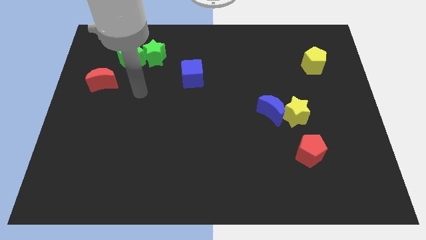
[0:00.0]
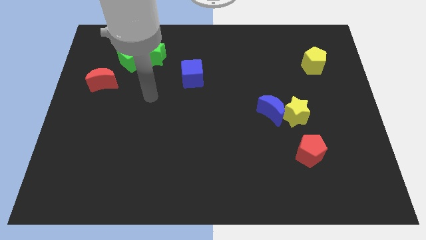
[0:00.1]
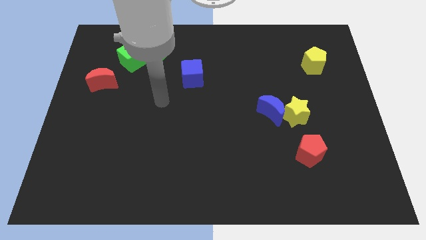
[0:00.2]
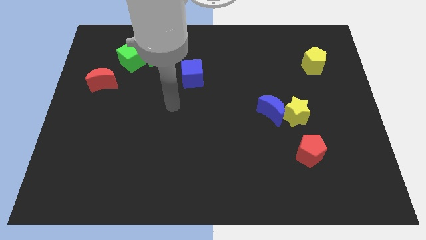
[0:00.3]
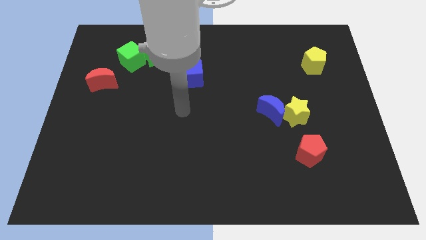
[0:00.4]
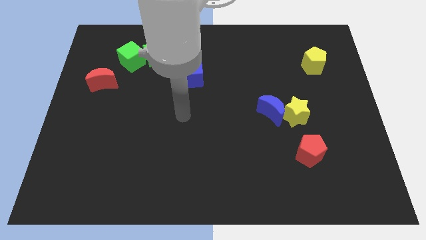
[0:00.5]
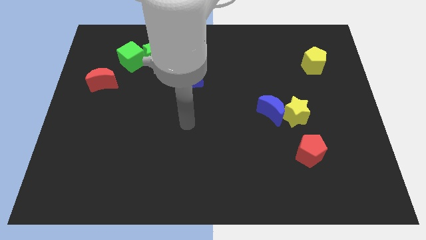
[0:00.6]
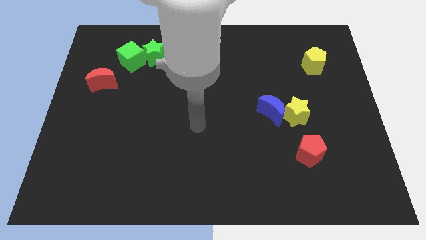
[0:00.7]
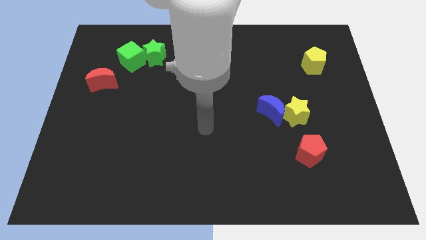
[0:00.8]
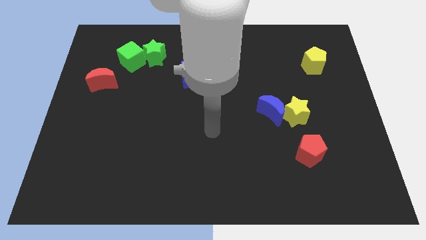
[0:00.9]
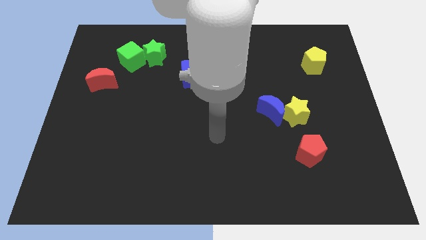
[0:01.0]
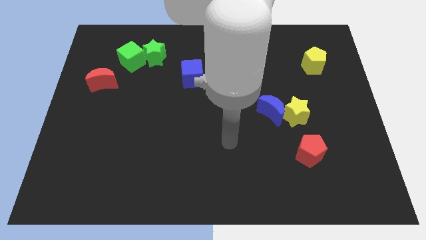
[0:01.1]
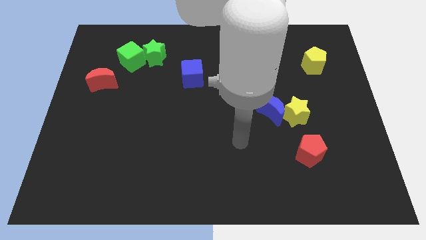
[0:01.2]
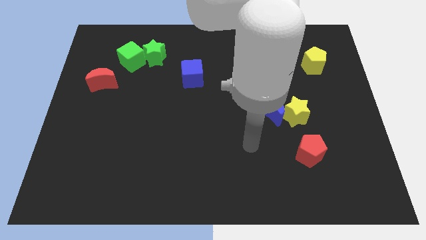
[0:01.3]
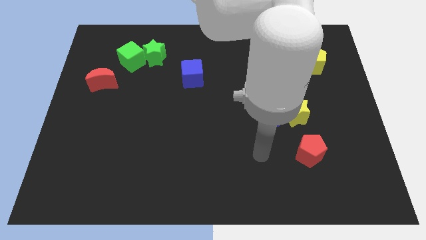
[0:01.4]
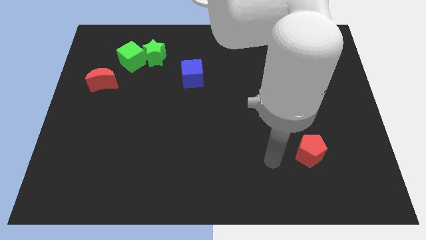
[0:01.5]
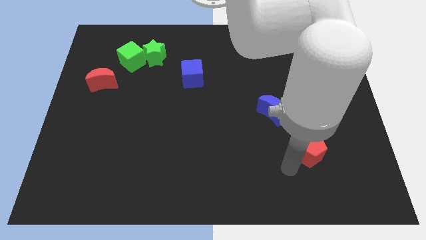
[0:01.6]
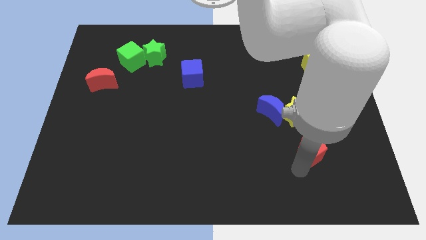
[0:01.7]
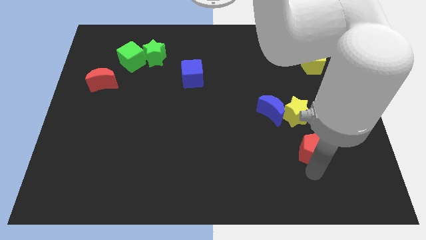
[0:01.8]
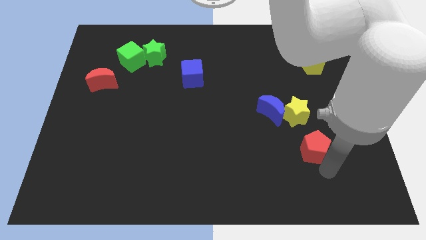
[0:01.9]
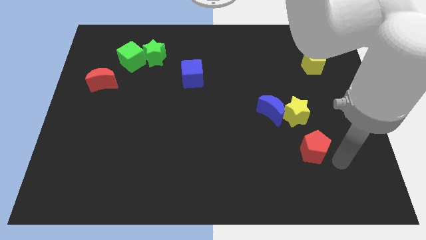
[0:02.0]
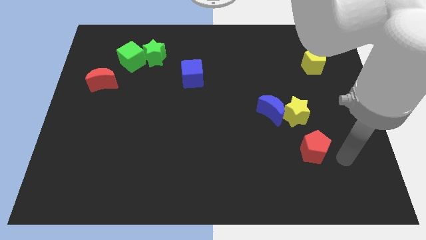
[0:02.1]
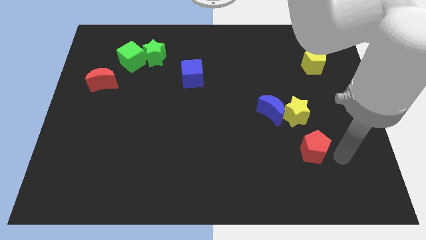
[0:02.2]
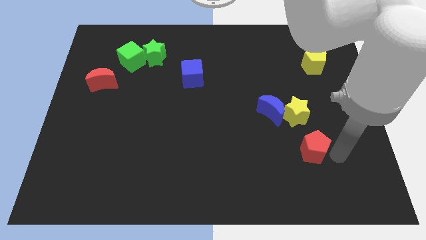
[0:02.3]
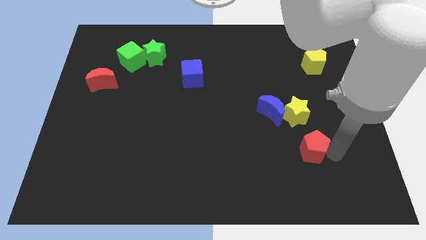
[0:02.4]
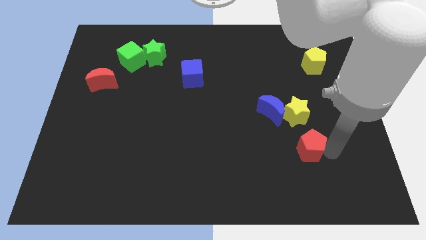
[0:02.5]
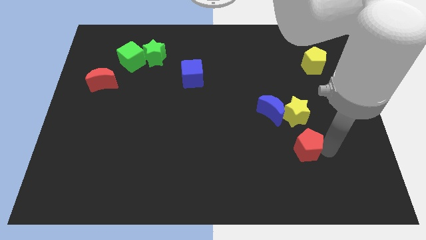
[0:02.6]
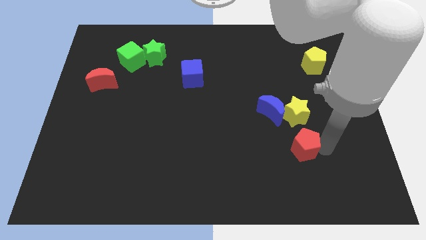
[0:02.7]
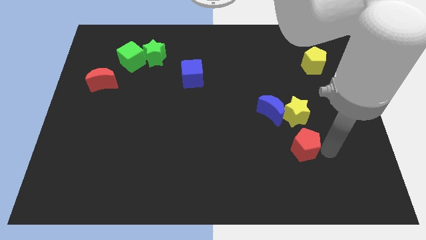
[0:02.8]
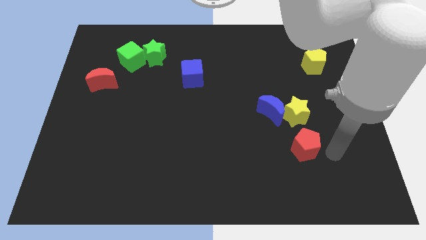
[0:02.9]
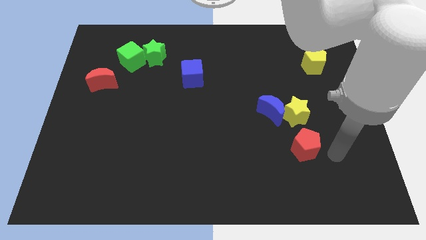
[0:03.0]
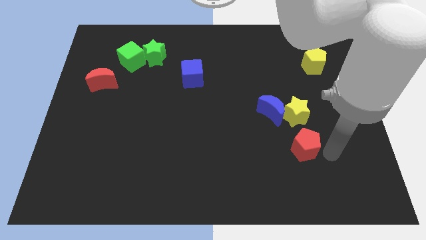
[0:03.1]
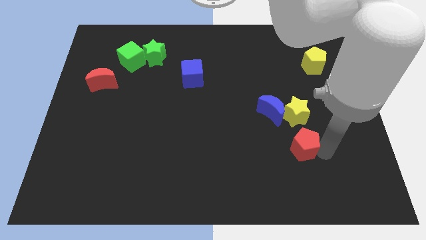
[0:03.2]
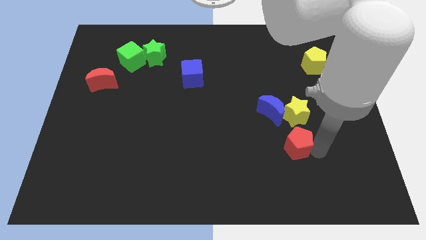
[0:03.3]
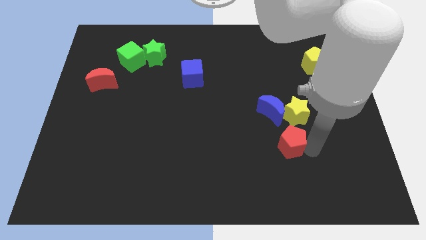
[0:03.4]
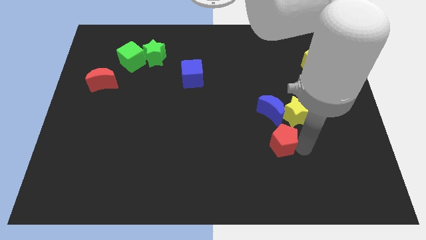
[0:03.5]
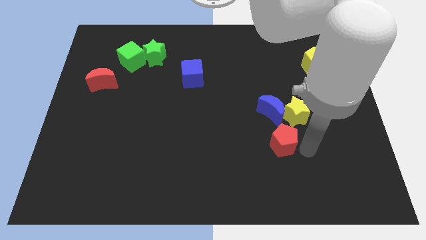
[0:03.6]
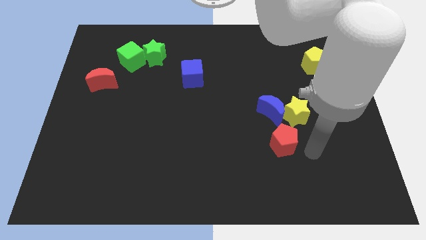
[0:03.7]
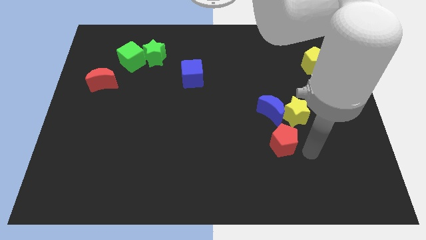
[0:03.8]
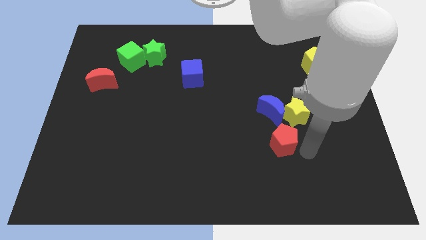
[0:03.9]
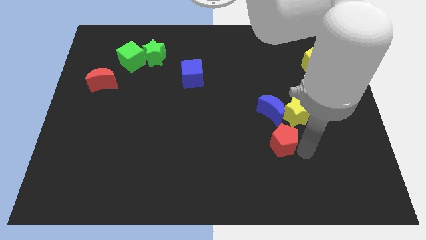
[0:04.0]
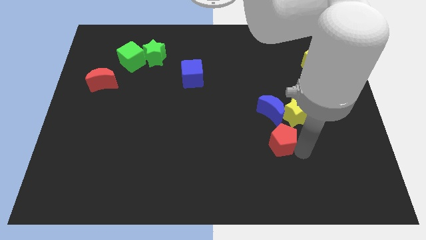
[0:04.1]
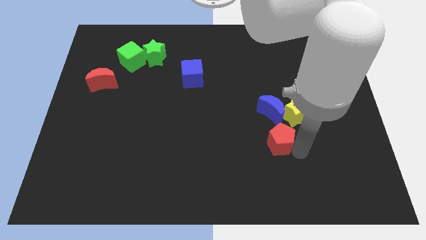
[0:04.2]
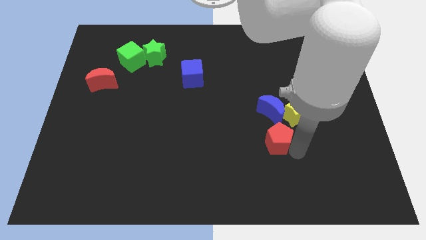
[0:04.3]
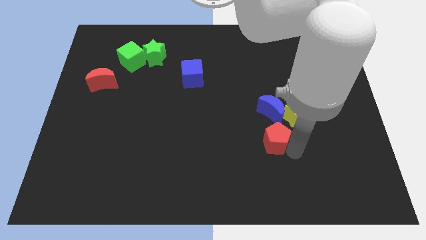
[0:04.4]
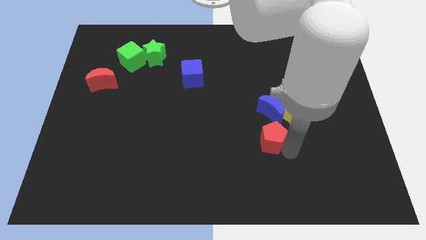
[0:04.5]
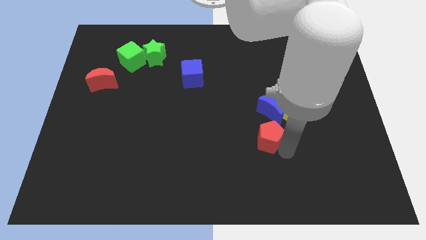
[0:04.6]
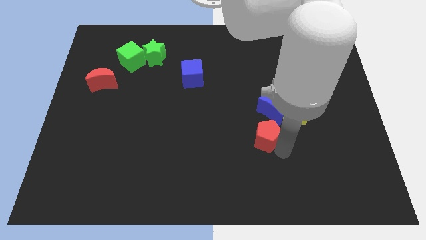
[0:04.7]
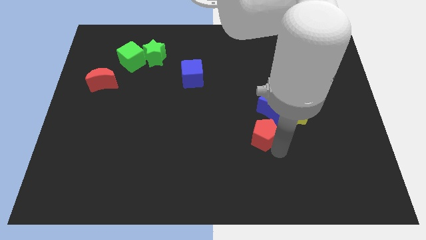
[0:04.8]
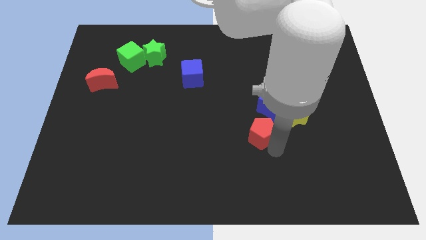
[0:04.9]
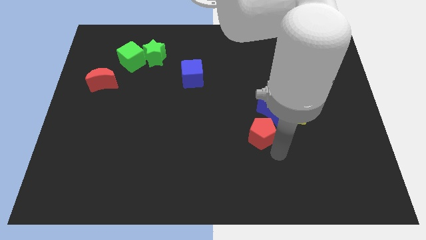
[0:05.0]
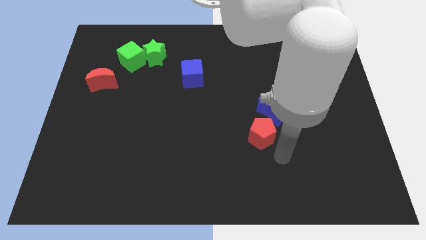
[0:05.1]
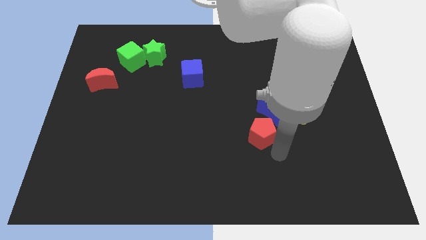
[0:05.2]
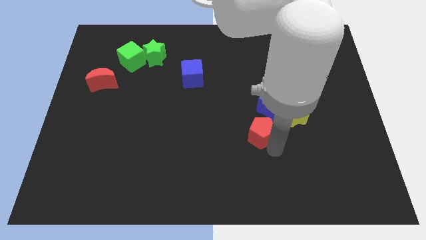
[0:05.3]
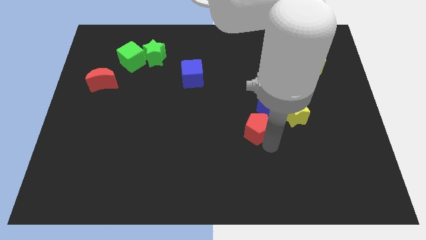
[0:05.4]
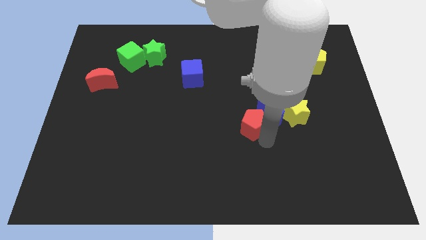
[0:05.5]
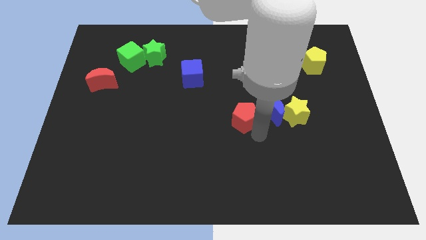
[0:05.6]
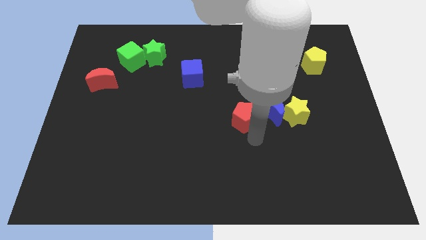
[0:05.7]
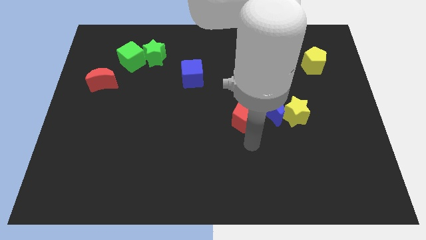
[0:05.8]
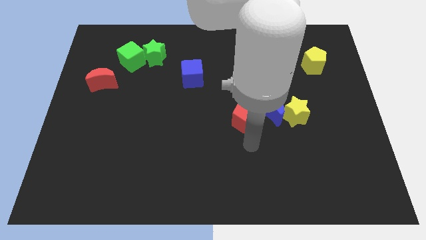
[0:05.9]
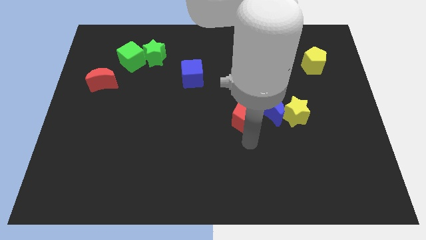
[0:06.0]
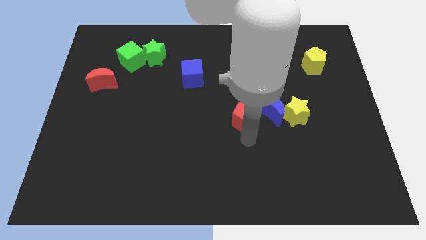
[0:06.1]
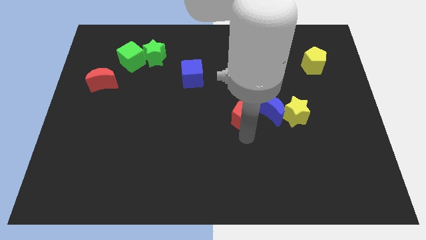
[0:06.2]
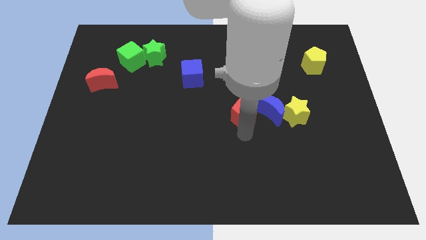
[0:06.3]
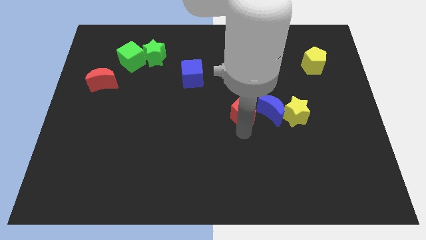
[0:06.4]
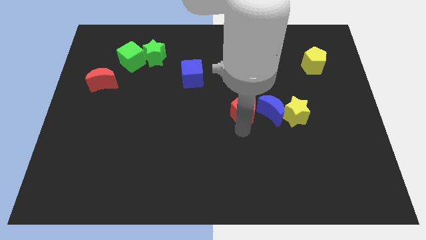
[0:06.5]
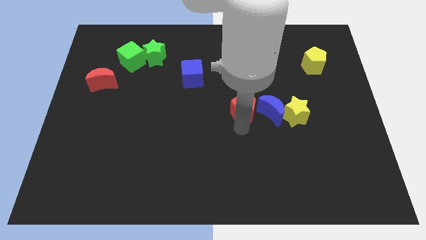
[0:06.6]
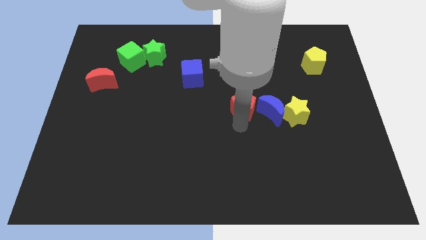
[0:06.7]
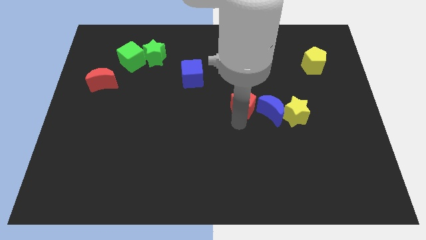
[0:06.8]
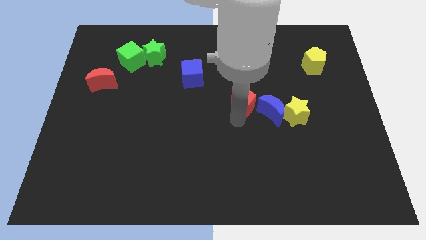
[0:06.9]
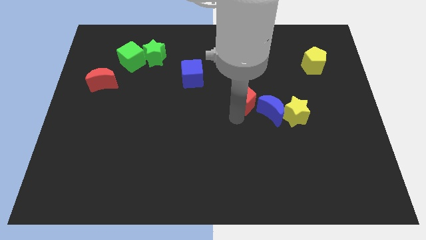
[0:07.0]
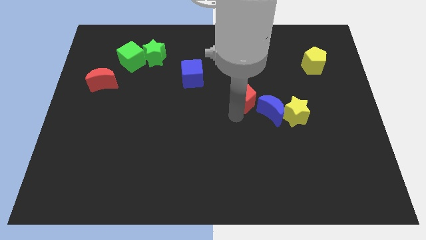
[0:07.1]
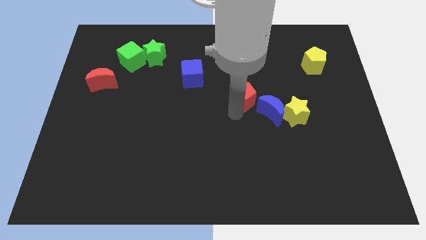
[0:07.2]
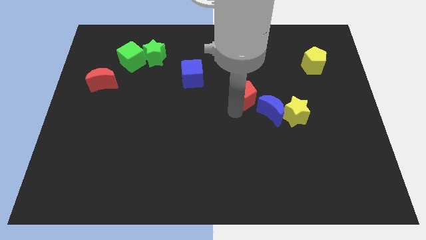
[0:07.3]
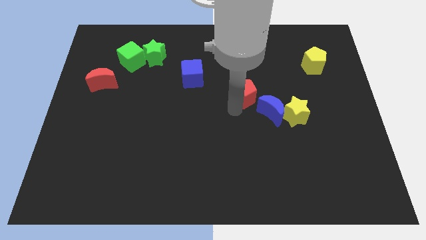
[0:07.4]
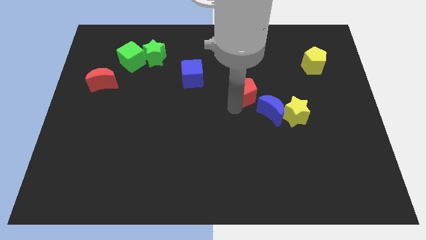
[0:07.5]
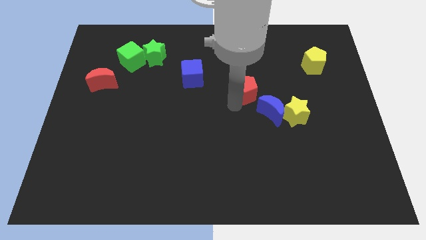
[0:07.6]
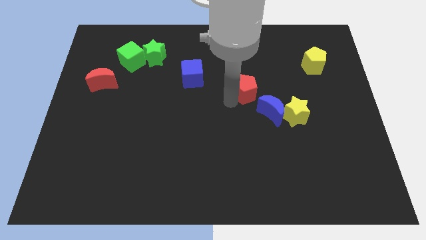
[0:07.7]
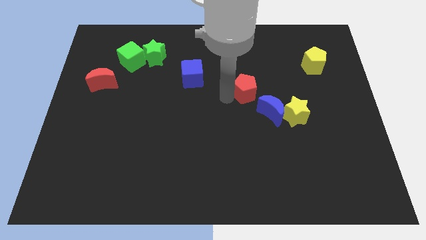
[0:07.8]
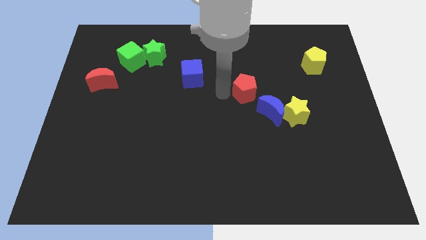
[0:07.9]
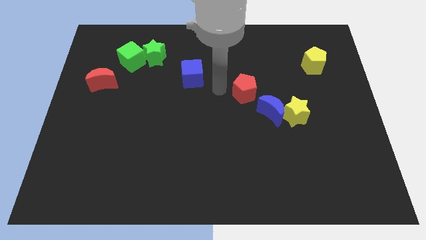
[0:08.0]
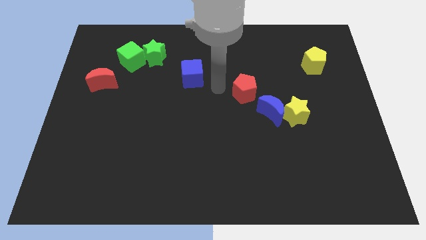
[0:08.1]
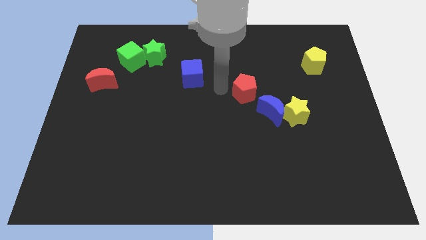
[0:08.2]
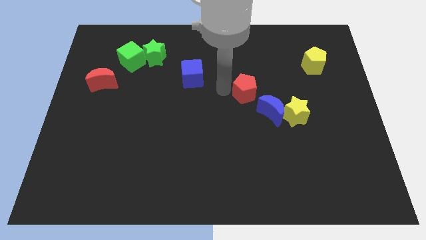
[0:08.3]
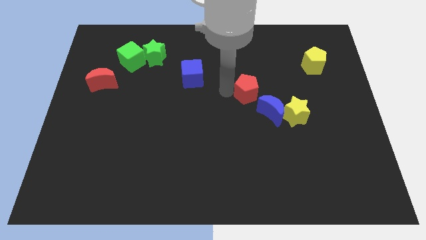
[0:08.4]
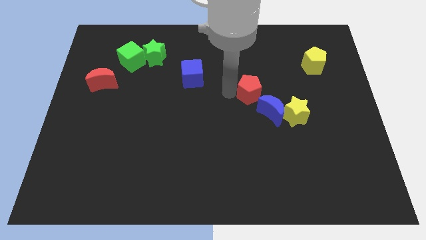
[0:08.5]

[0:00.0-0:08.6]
put the red pentagon to the top left of the yellow star
